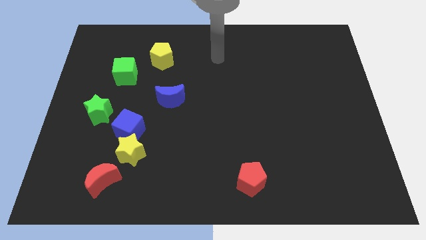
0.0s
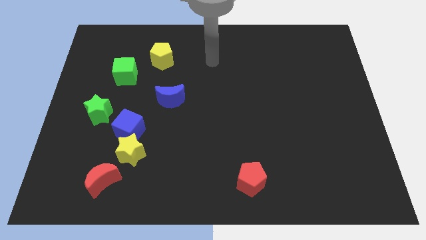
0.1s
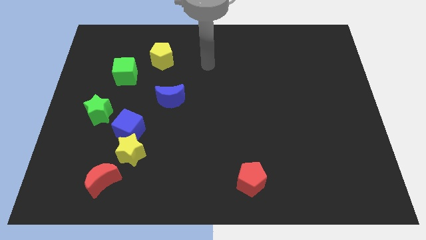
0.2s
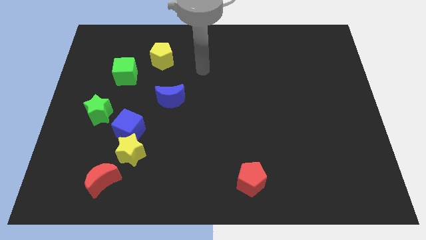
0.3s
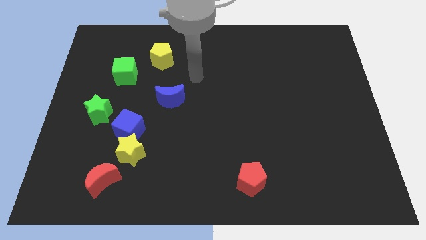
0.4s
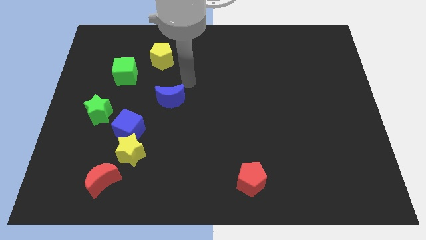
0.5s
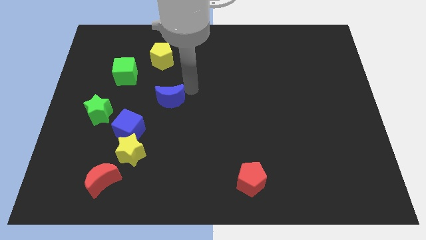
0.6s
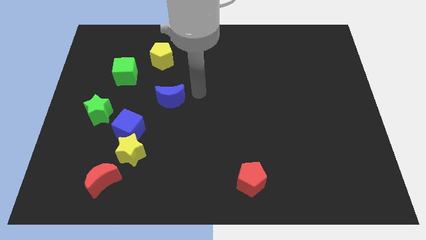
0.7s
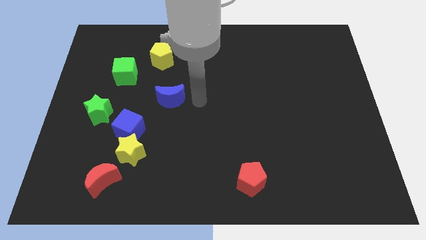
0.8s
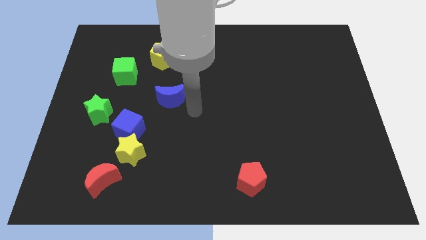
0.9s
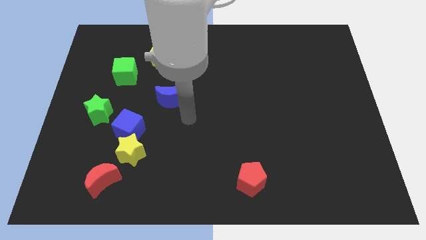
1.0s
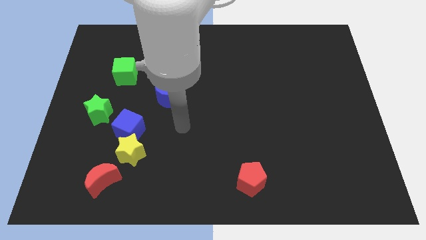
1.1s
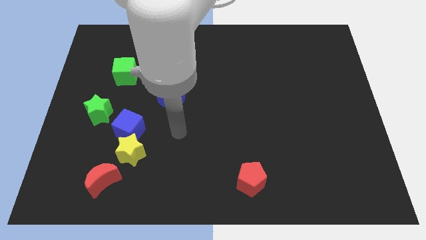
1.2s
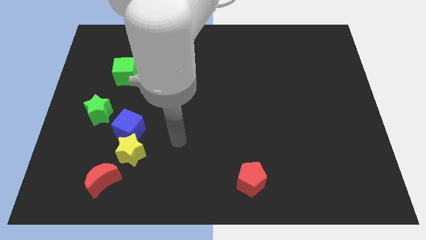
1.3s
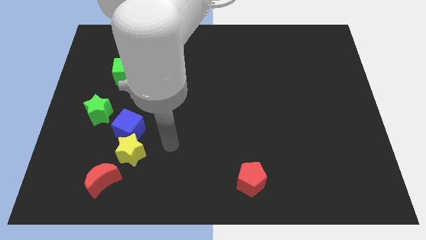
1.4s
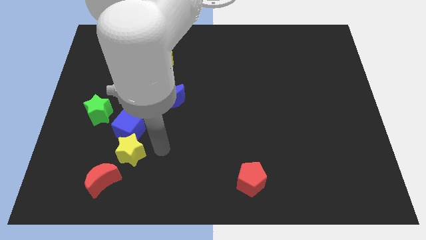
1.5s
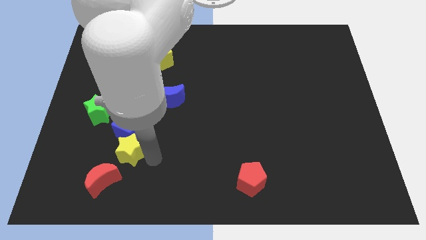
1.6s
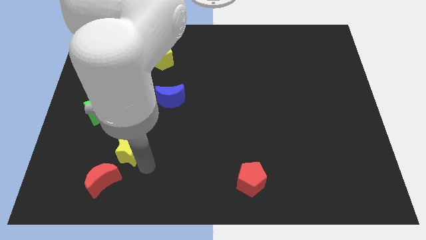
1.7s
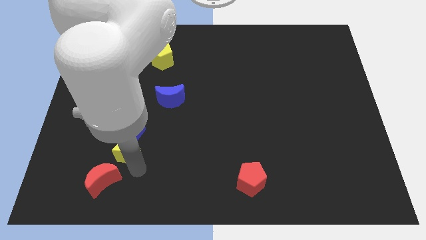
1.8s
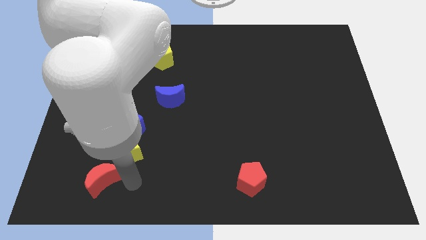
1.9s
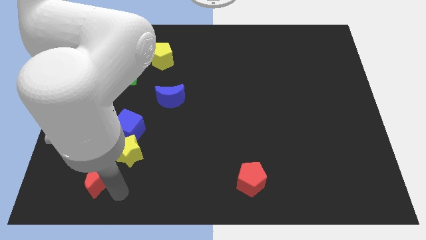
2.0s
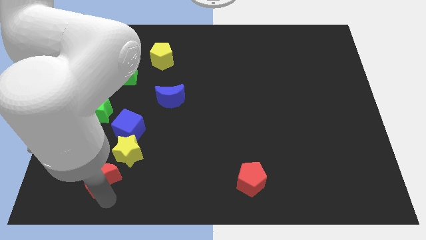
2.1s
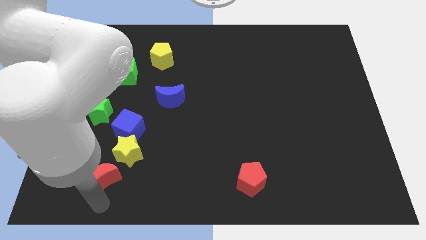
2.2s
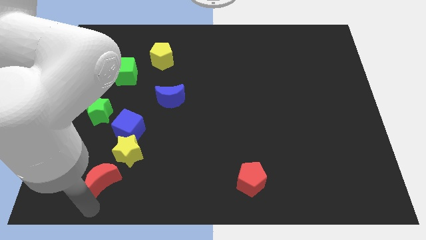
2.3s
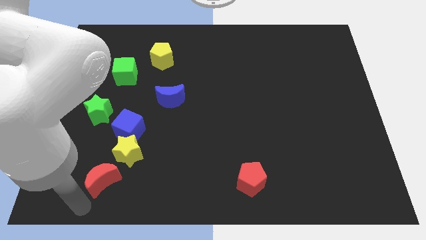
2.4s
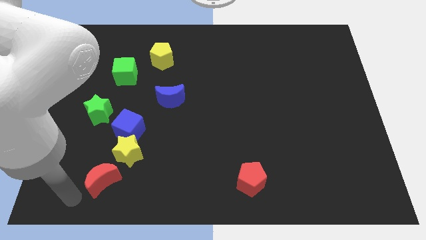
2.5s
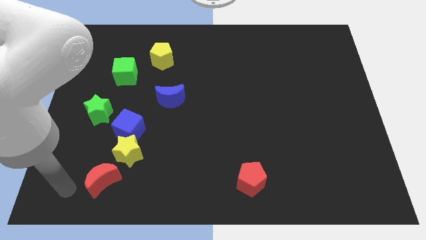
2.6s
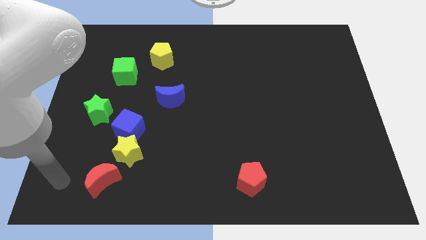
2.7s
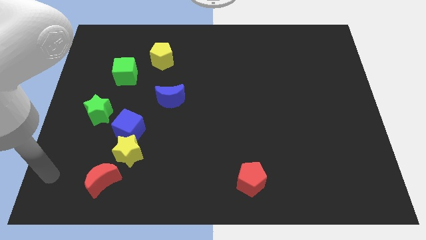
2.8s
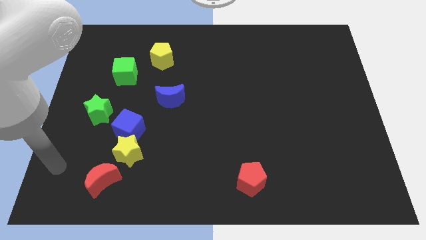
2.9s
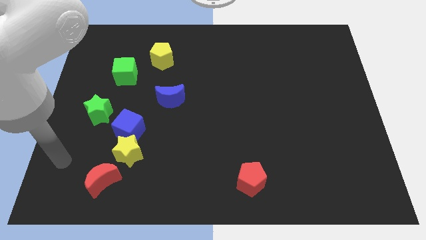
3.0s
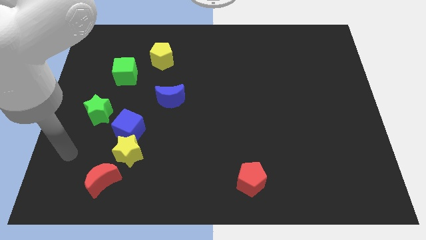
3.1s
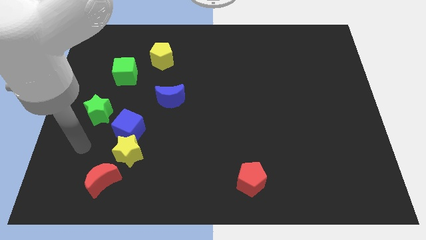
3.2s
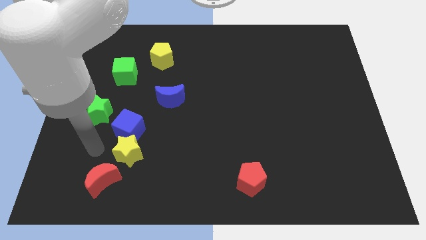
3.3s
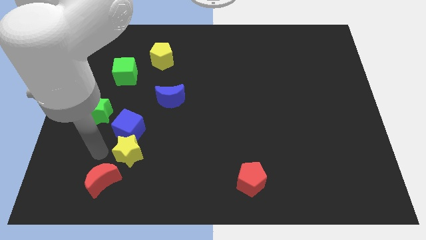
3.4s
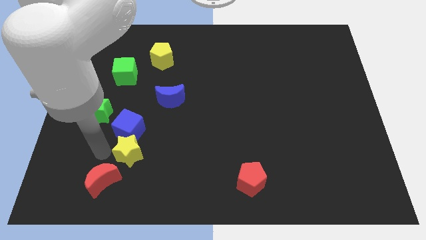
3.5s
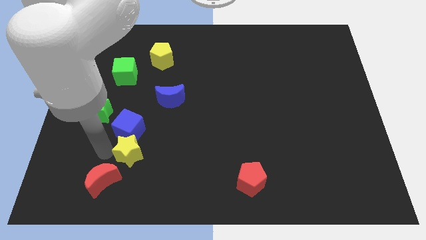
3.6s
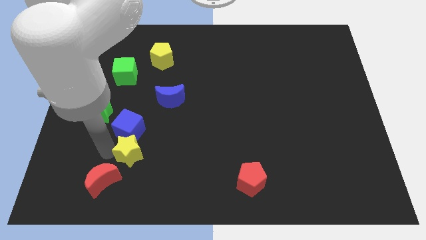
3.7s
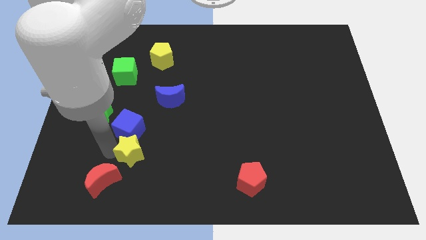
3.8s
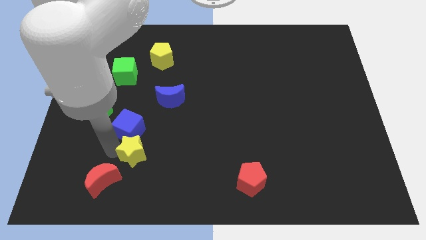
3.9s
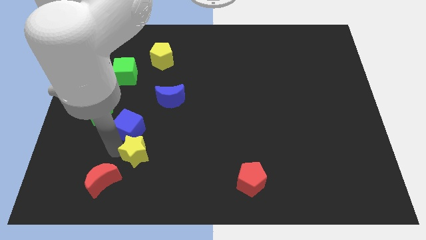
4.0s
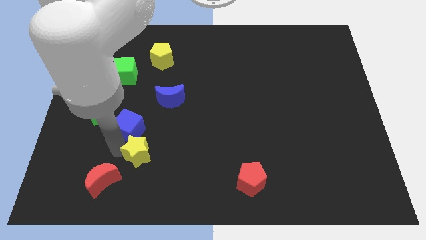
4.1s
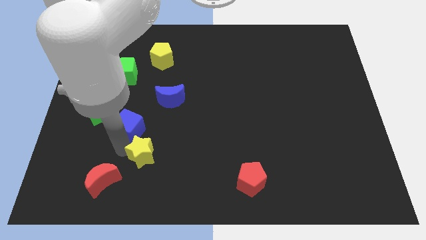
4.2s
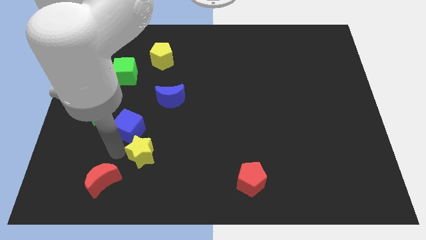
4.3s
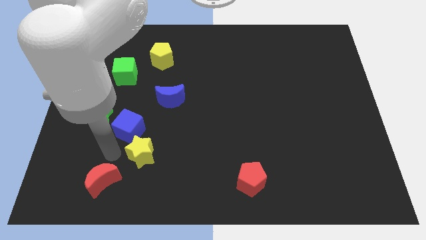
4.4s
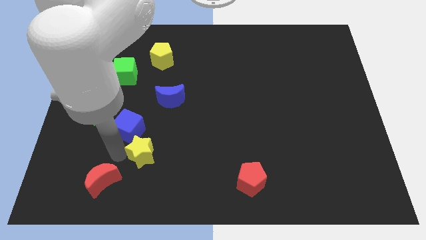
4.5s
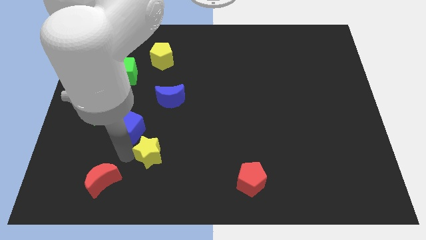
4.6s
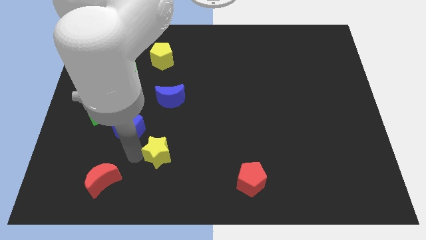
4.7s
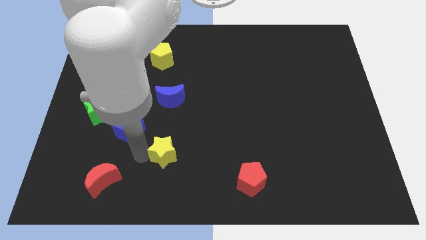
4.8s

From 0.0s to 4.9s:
pull the yellow star apart from the blue cube and red moon

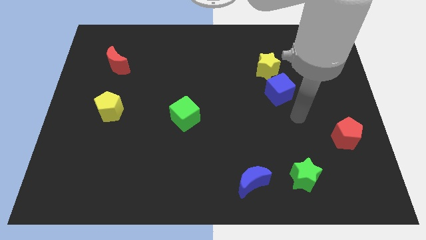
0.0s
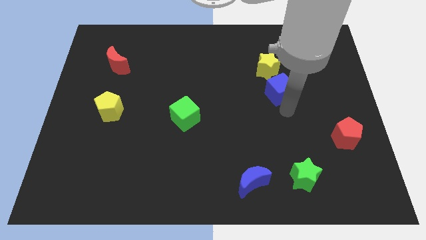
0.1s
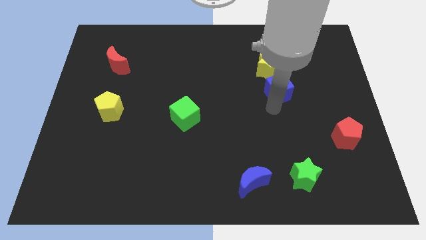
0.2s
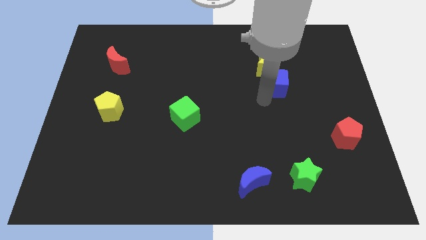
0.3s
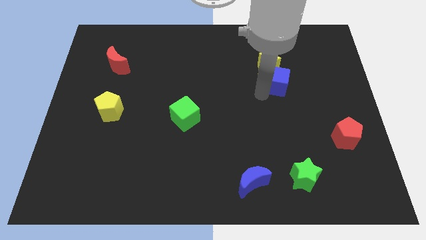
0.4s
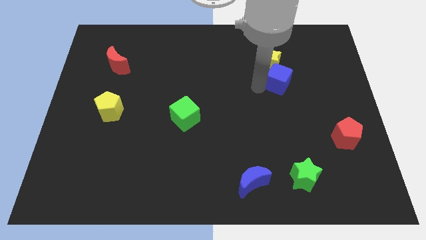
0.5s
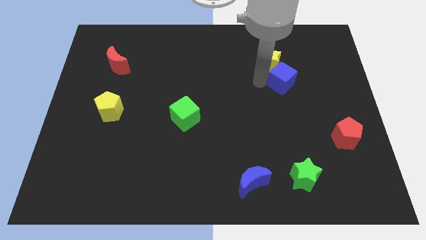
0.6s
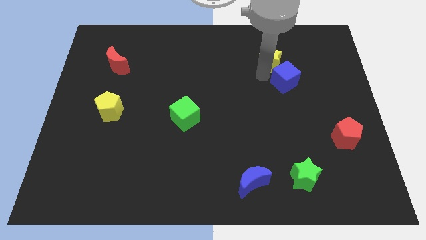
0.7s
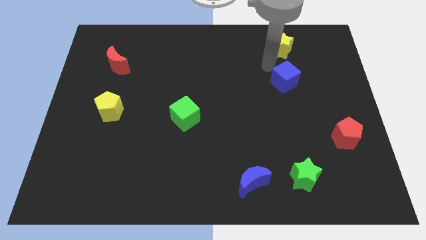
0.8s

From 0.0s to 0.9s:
separate the blue cube from the yellow star

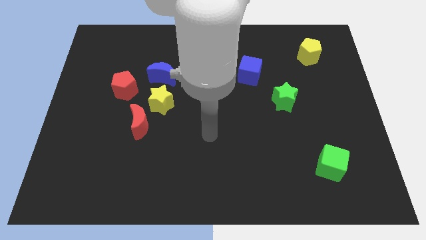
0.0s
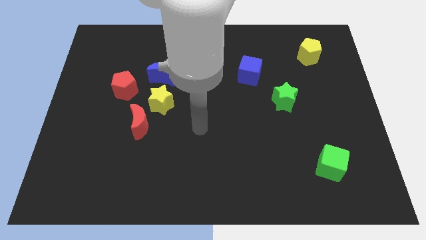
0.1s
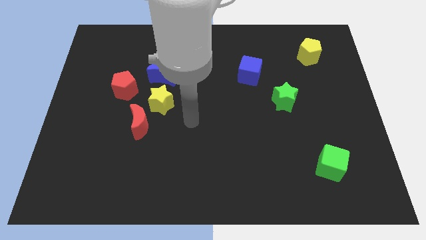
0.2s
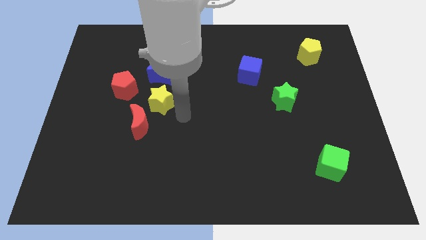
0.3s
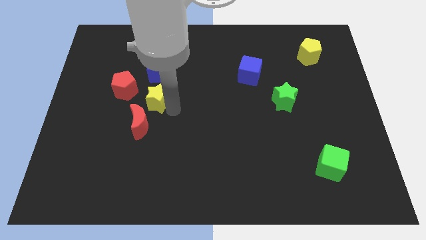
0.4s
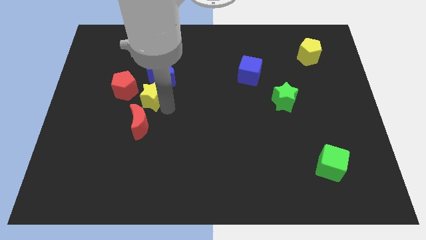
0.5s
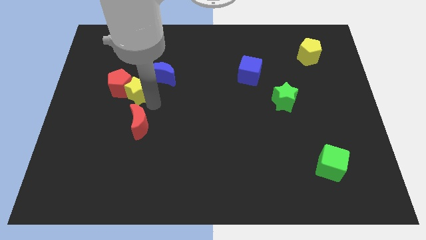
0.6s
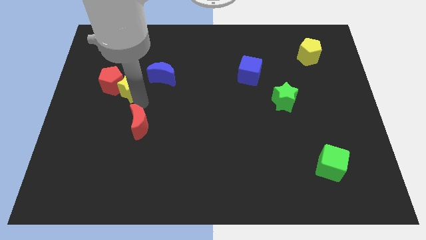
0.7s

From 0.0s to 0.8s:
separate the red moon from the yellow star

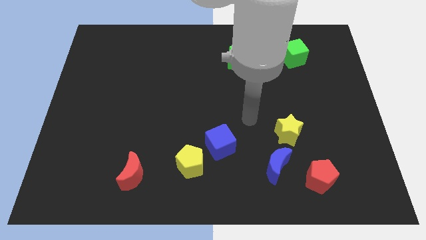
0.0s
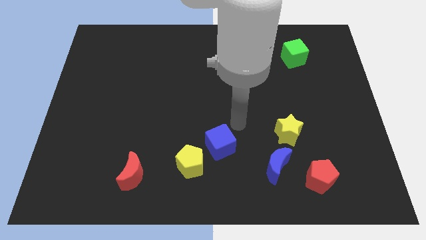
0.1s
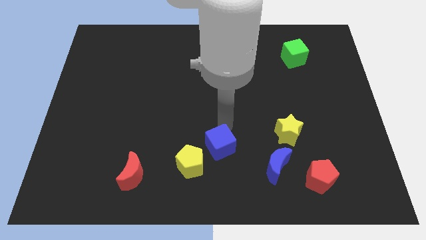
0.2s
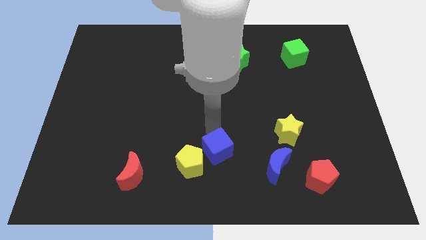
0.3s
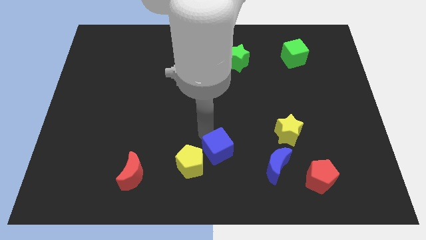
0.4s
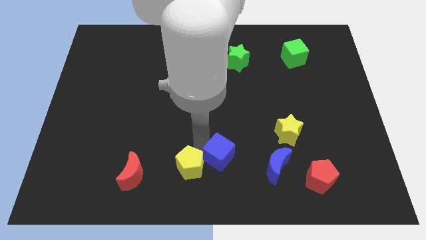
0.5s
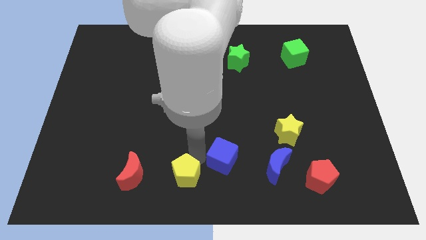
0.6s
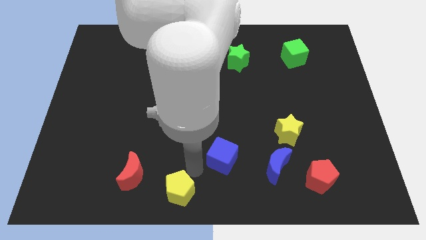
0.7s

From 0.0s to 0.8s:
separate the blue cube from the yellow pentagon

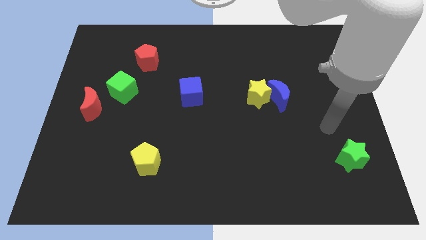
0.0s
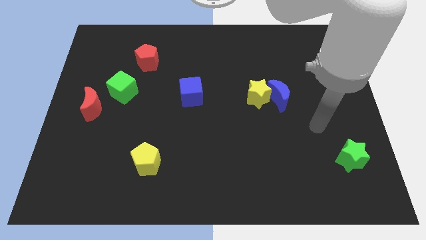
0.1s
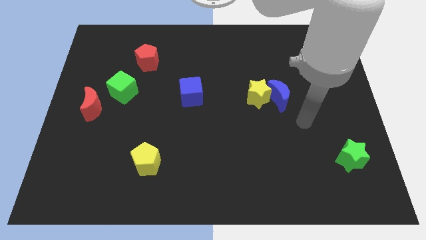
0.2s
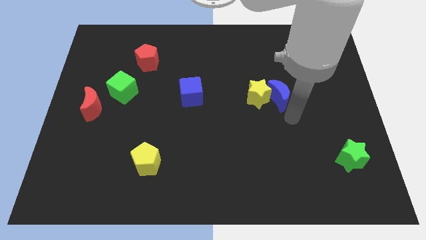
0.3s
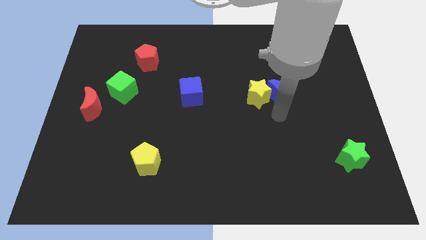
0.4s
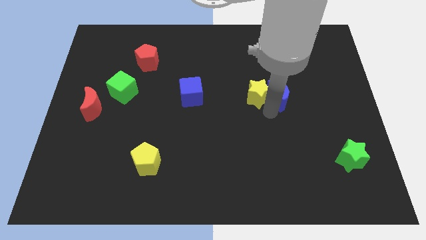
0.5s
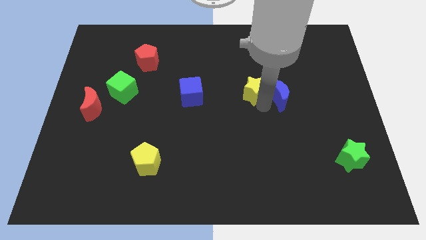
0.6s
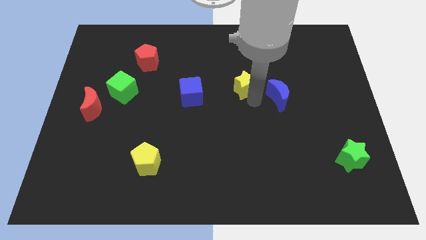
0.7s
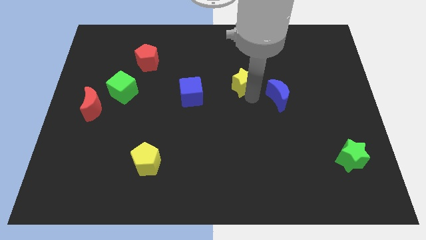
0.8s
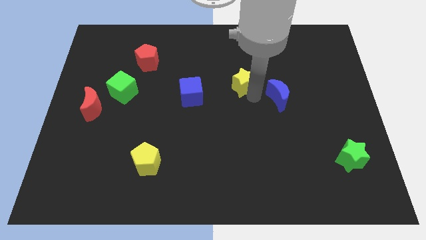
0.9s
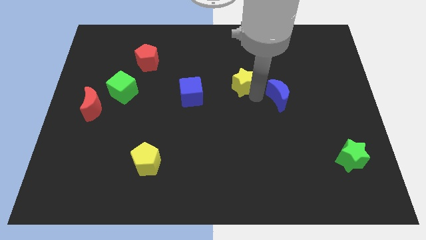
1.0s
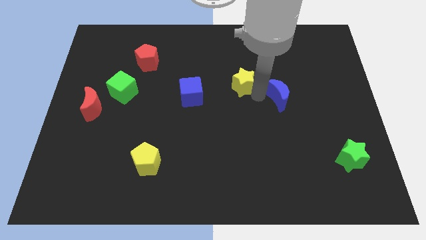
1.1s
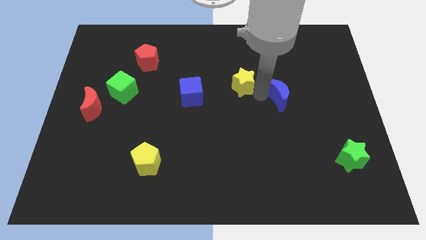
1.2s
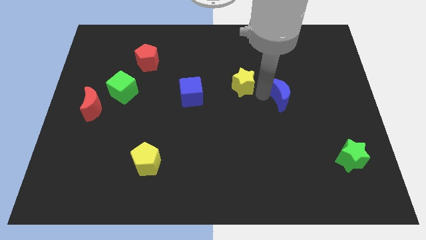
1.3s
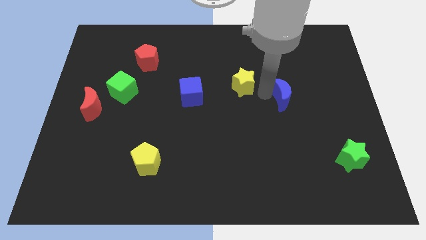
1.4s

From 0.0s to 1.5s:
move the blue moon away from the yellow star

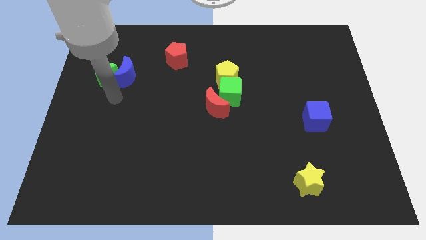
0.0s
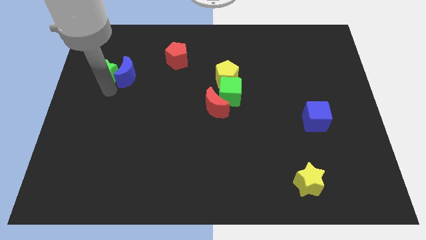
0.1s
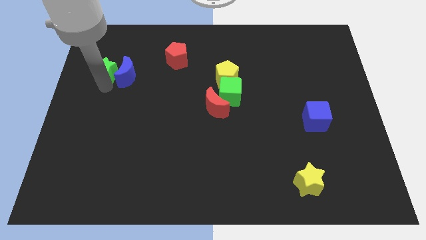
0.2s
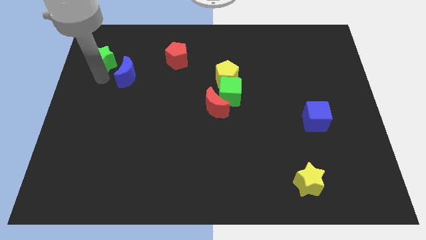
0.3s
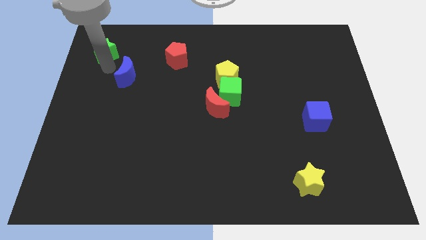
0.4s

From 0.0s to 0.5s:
move the blue moon away from the green star
